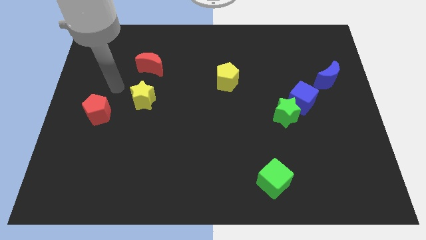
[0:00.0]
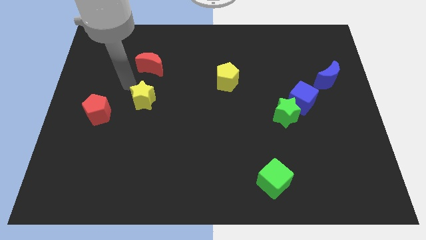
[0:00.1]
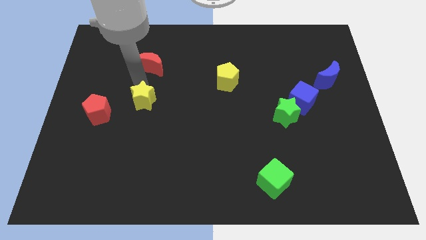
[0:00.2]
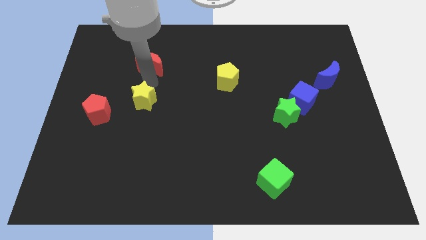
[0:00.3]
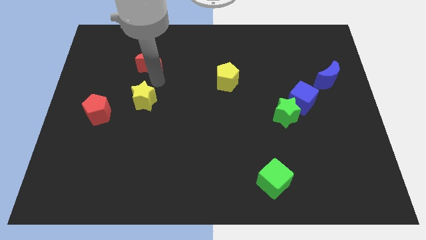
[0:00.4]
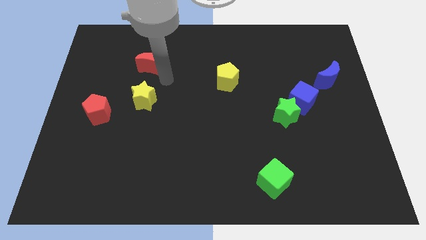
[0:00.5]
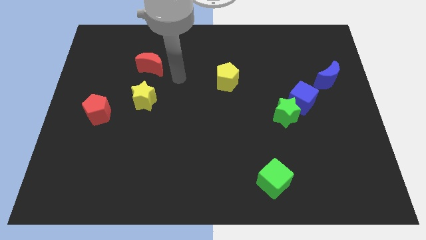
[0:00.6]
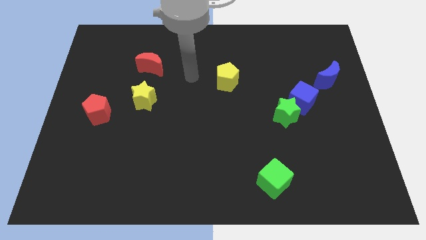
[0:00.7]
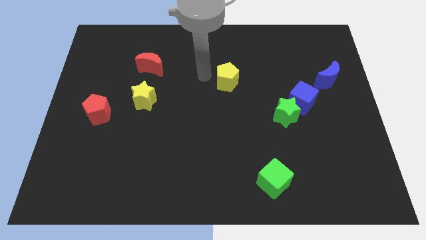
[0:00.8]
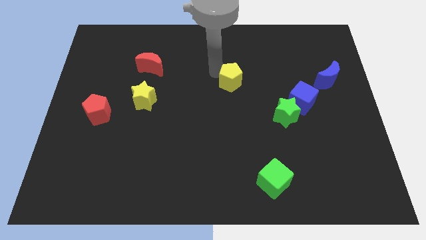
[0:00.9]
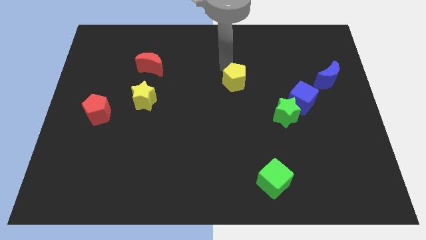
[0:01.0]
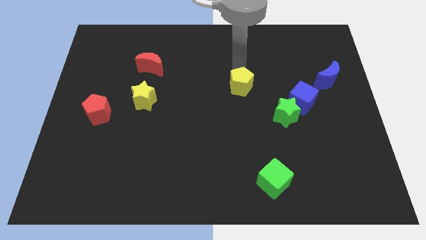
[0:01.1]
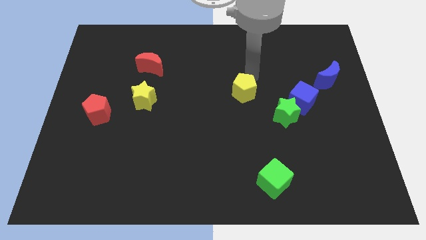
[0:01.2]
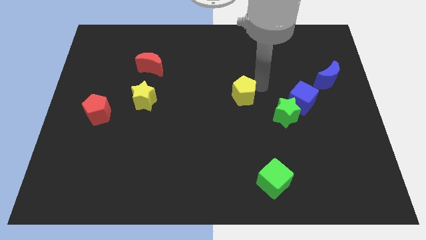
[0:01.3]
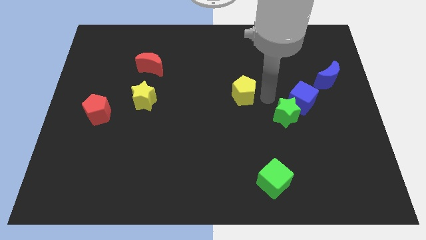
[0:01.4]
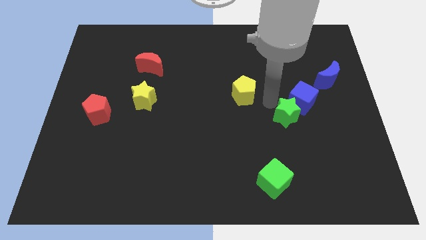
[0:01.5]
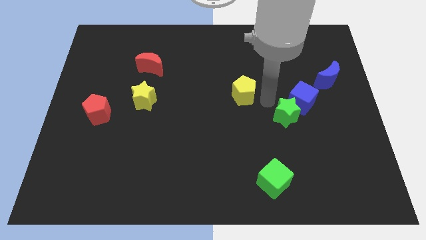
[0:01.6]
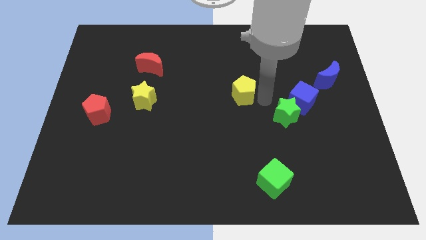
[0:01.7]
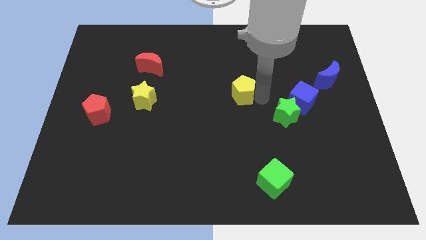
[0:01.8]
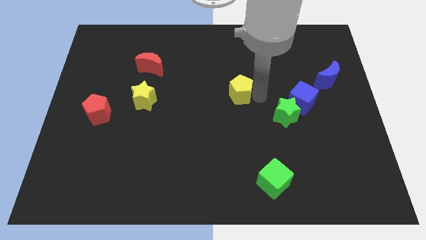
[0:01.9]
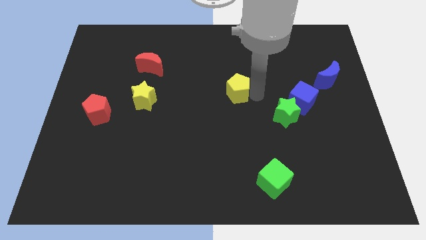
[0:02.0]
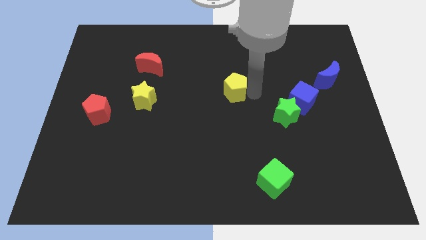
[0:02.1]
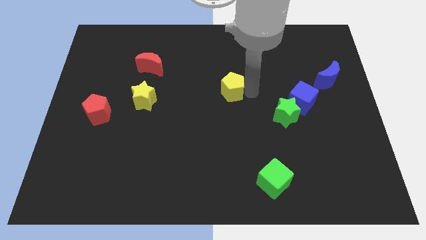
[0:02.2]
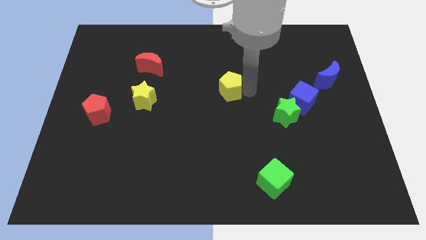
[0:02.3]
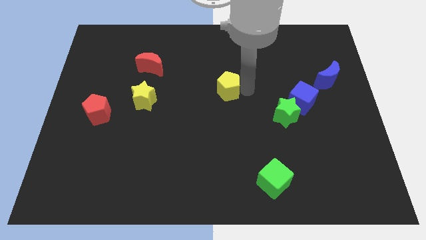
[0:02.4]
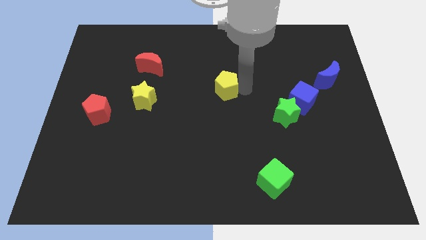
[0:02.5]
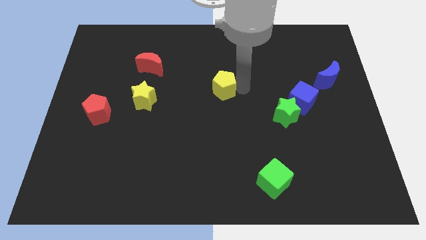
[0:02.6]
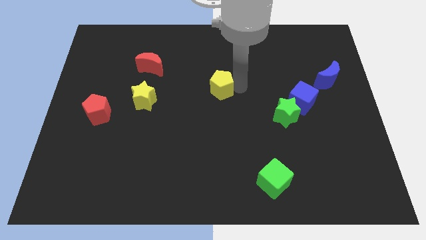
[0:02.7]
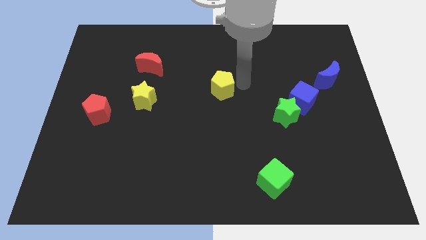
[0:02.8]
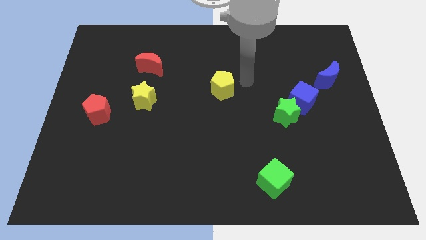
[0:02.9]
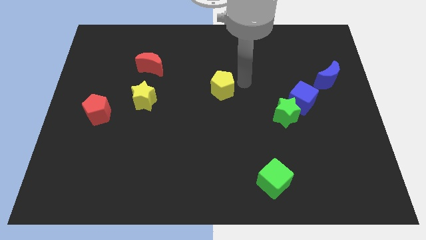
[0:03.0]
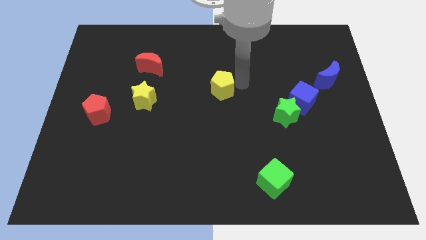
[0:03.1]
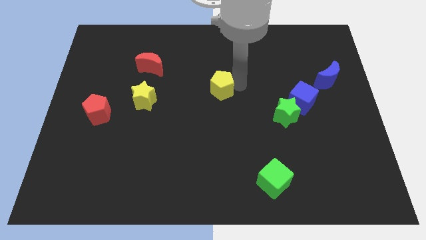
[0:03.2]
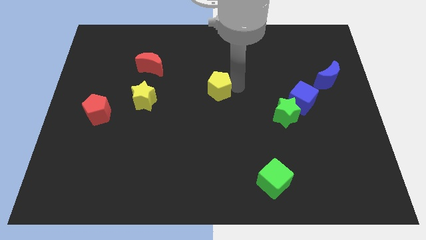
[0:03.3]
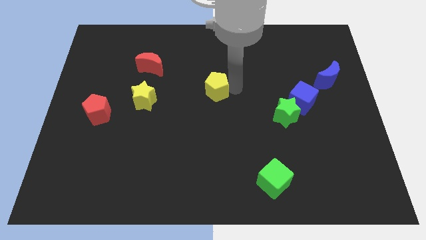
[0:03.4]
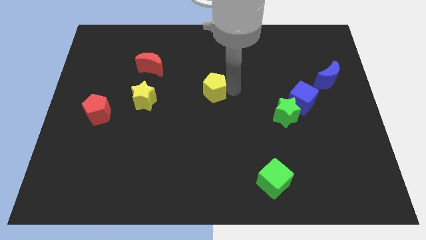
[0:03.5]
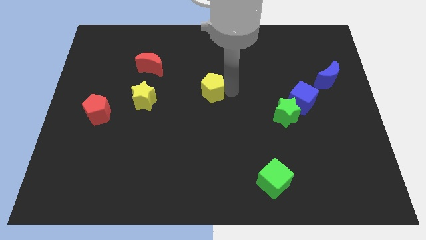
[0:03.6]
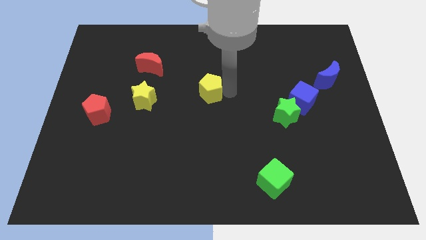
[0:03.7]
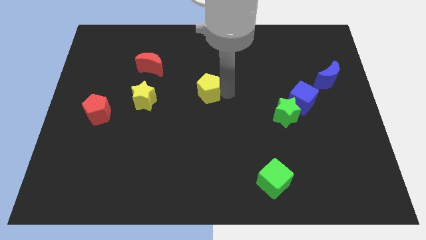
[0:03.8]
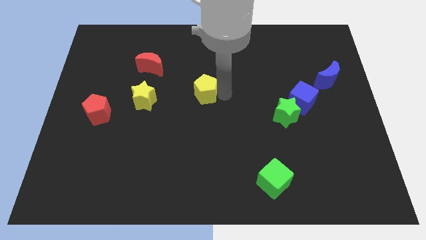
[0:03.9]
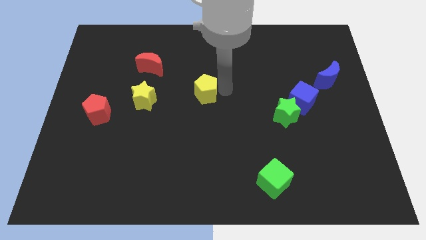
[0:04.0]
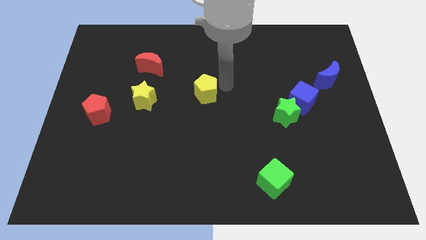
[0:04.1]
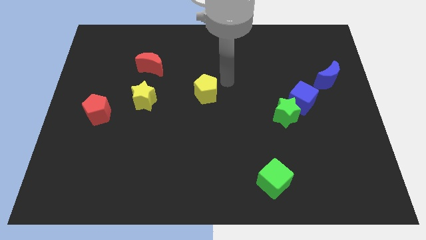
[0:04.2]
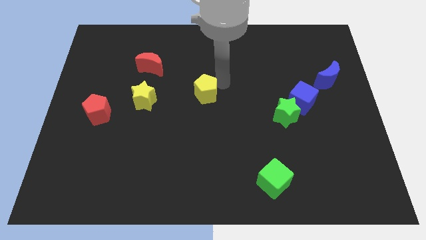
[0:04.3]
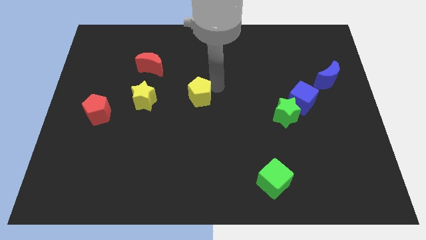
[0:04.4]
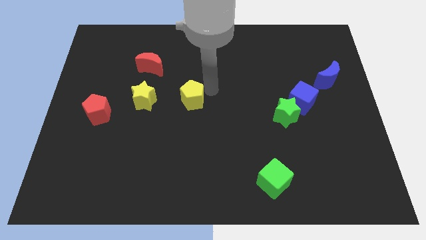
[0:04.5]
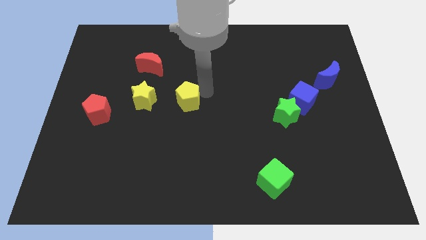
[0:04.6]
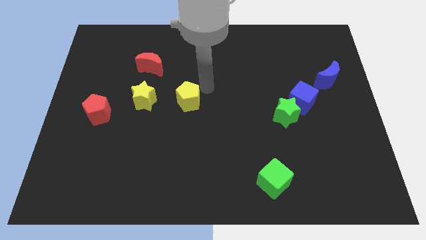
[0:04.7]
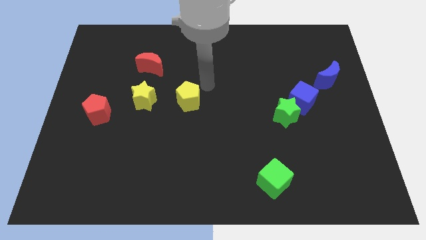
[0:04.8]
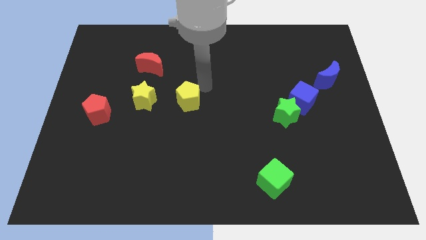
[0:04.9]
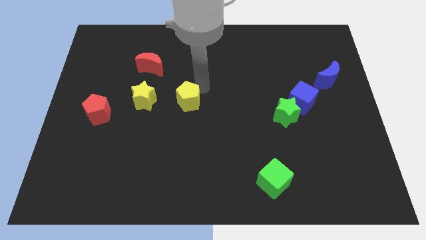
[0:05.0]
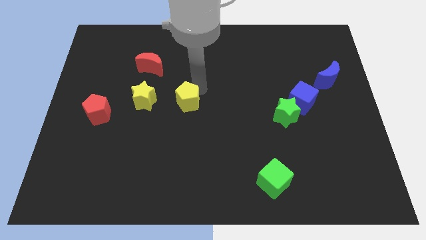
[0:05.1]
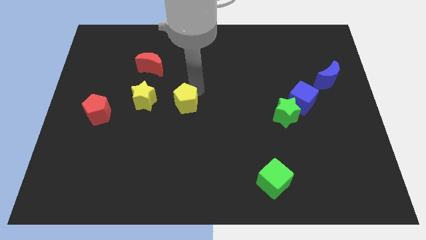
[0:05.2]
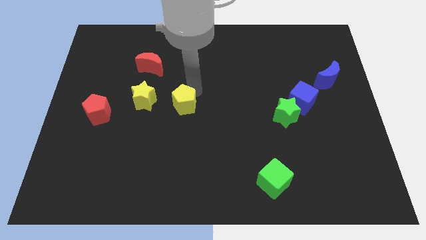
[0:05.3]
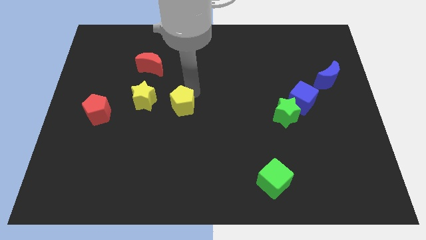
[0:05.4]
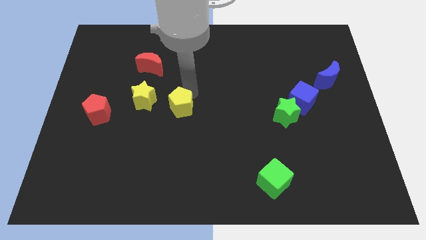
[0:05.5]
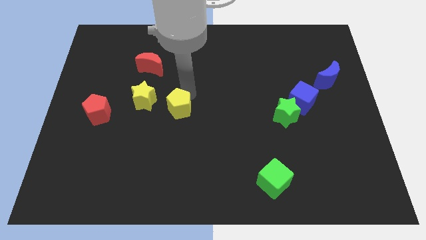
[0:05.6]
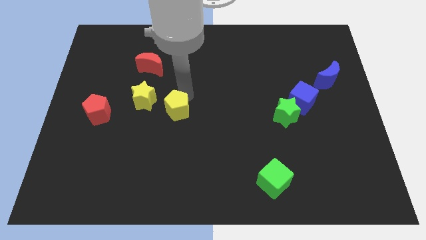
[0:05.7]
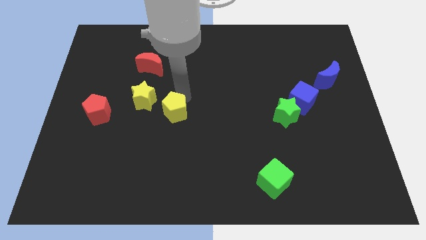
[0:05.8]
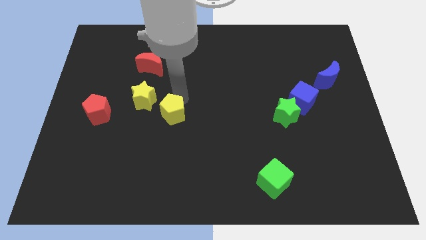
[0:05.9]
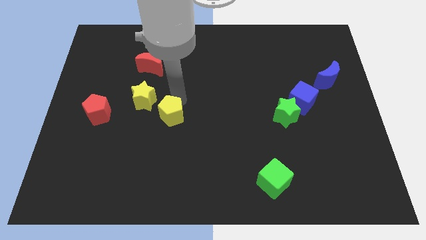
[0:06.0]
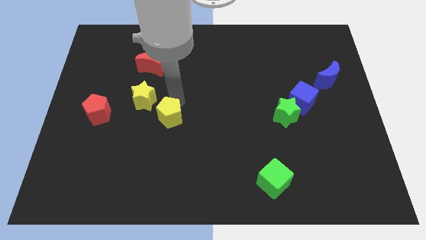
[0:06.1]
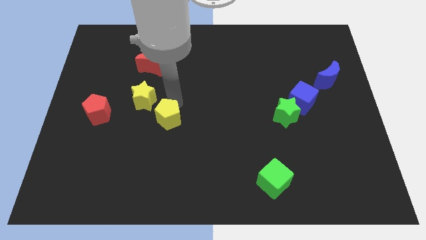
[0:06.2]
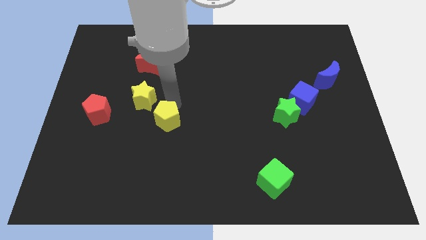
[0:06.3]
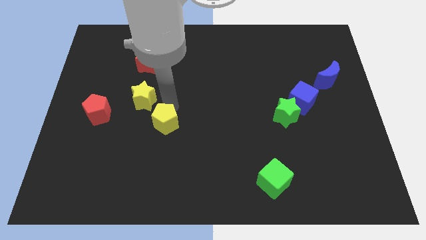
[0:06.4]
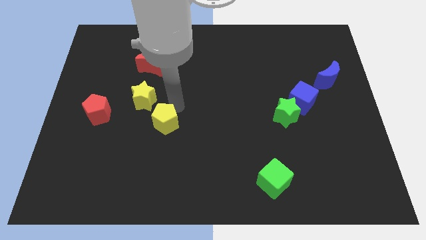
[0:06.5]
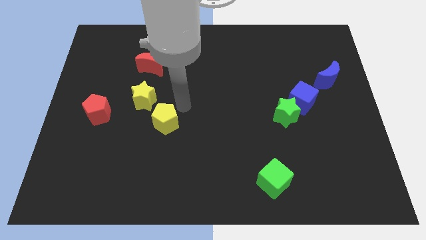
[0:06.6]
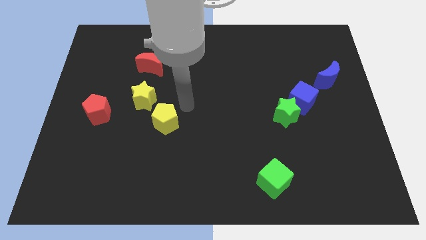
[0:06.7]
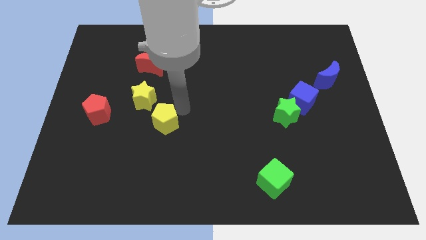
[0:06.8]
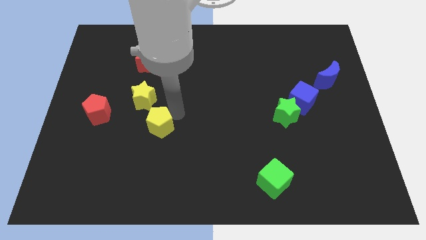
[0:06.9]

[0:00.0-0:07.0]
push the yellow pentagon down and then left

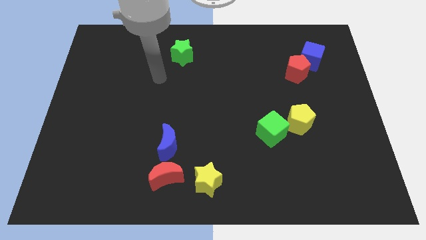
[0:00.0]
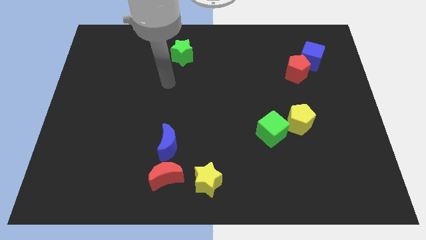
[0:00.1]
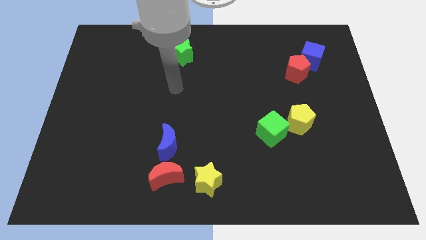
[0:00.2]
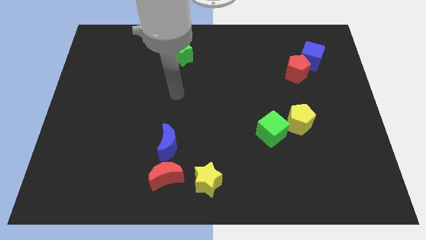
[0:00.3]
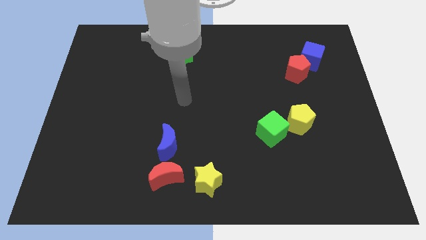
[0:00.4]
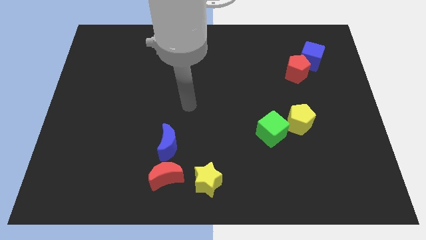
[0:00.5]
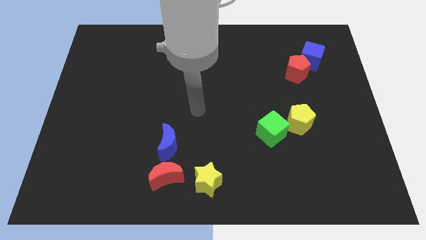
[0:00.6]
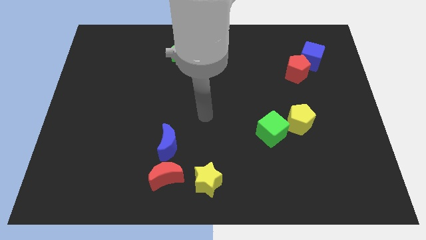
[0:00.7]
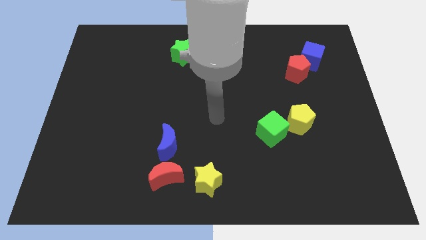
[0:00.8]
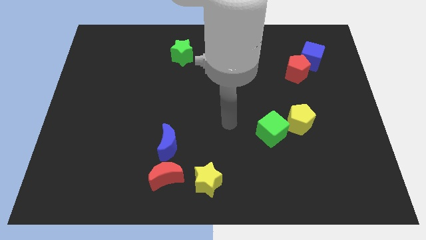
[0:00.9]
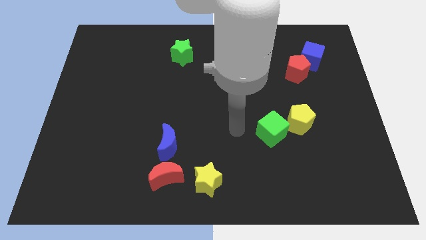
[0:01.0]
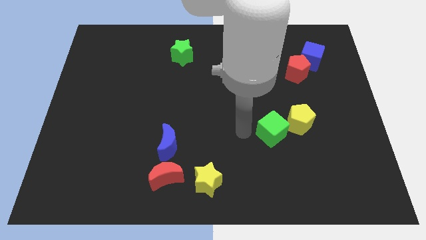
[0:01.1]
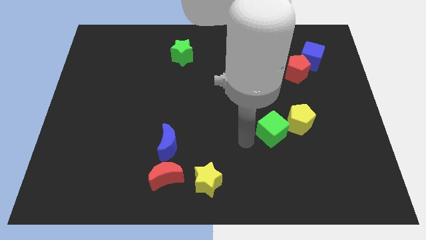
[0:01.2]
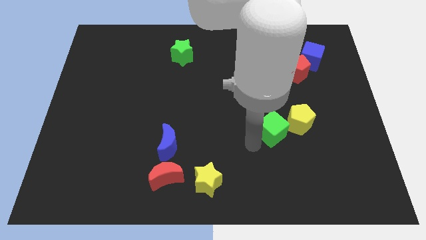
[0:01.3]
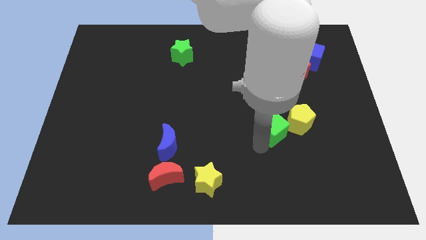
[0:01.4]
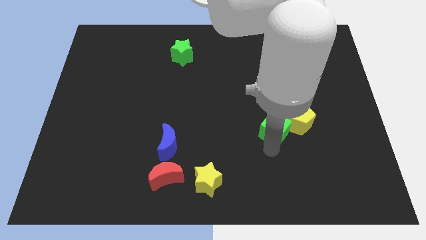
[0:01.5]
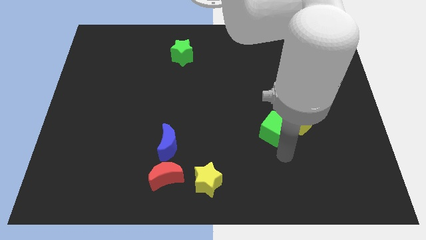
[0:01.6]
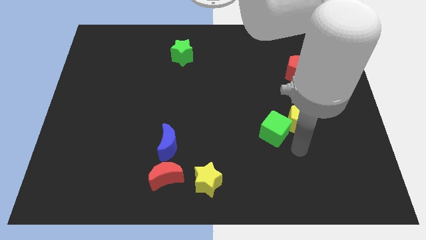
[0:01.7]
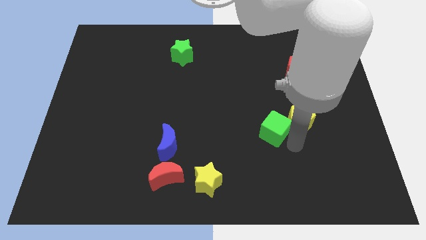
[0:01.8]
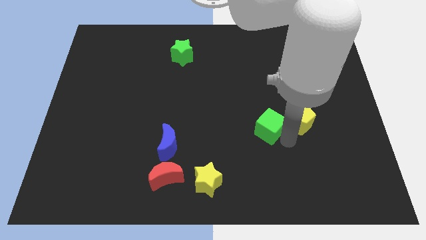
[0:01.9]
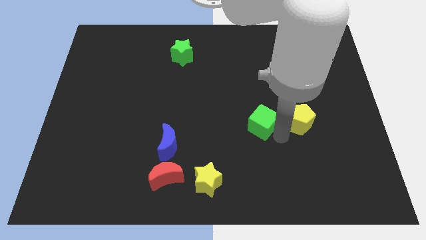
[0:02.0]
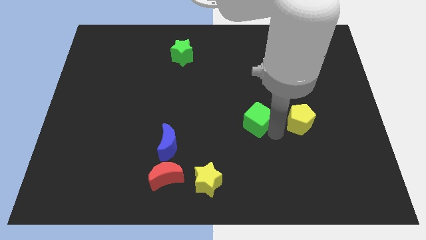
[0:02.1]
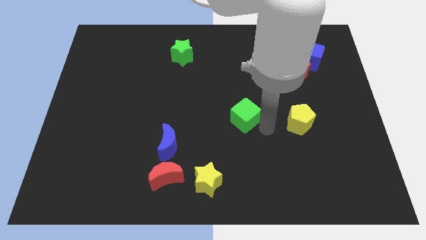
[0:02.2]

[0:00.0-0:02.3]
push the green cube a bit upwards and to the left diagonally
